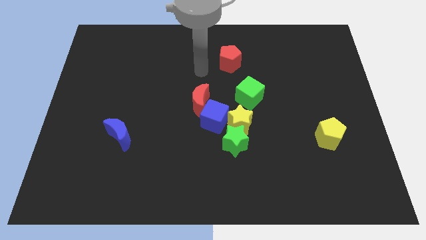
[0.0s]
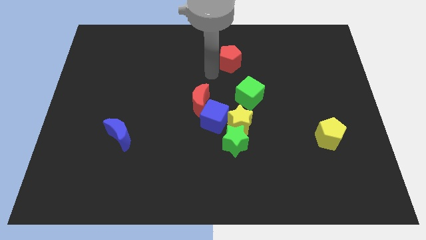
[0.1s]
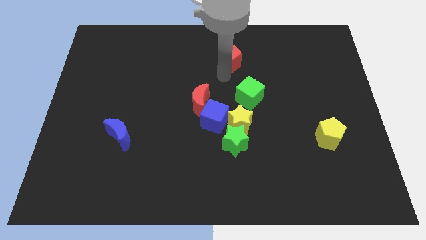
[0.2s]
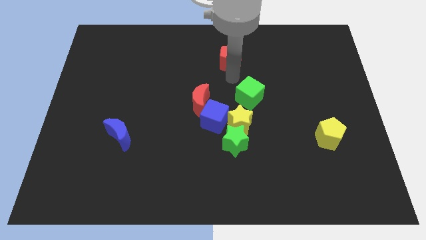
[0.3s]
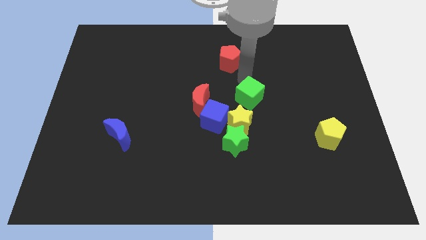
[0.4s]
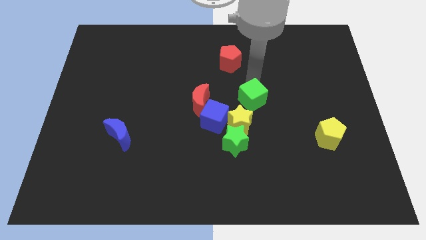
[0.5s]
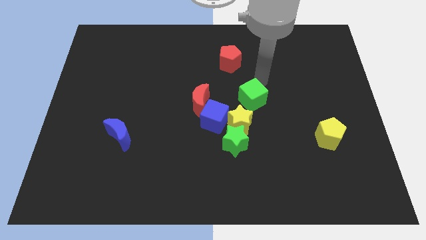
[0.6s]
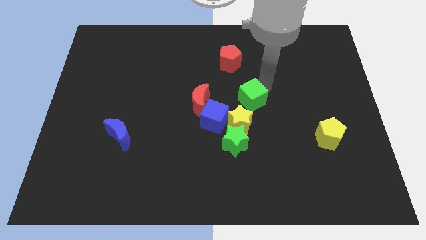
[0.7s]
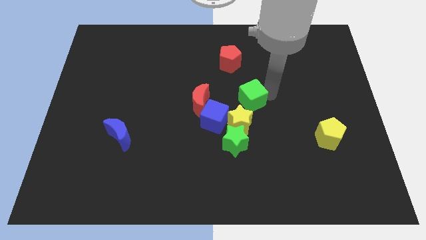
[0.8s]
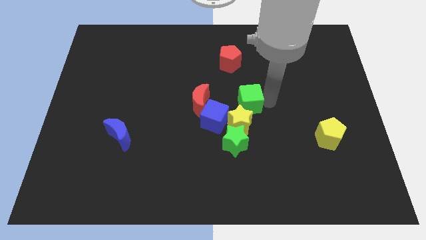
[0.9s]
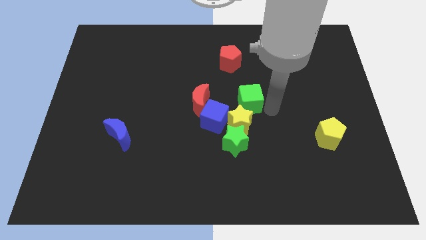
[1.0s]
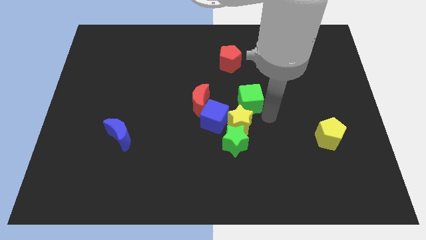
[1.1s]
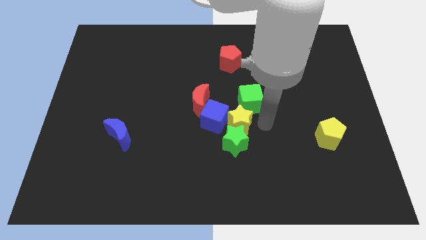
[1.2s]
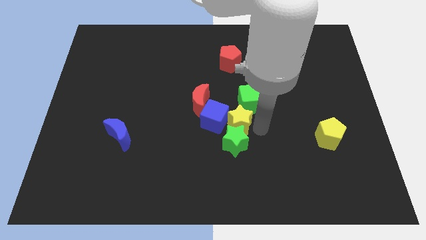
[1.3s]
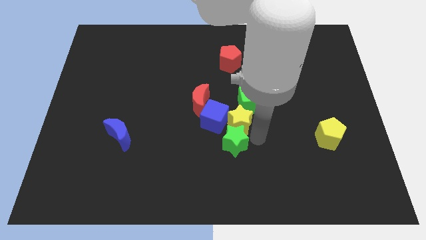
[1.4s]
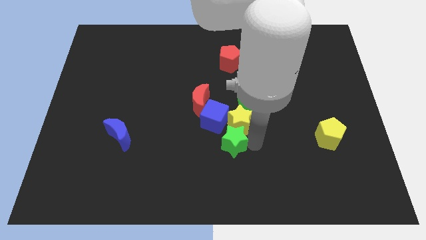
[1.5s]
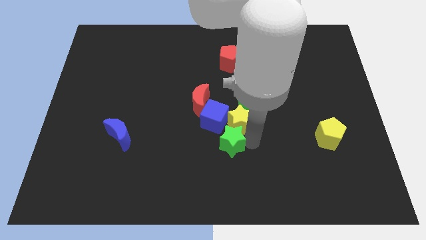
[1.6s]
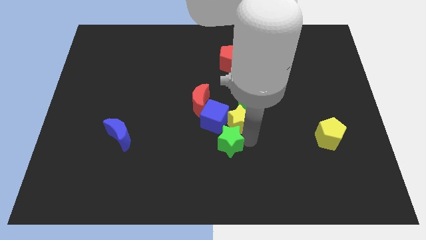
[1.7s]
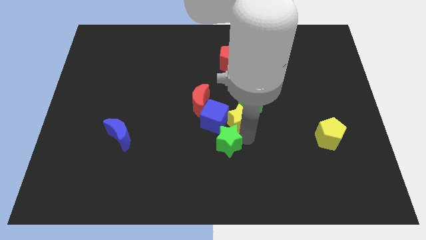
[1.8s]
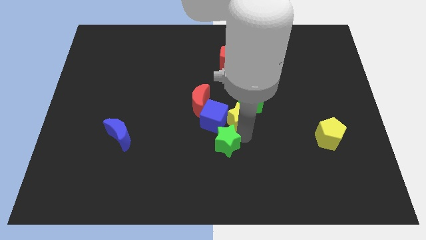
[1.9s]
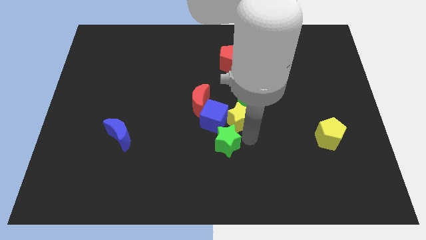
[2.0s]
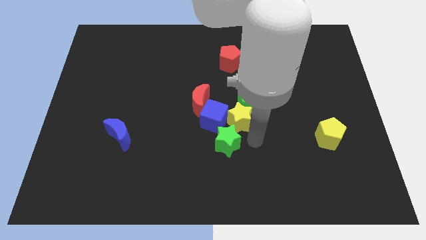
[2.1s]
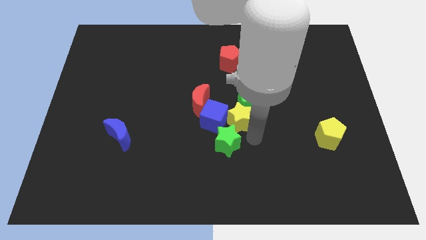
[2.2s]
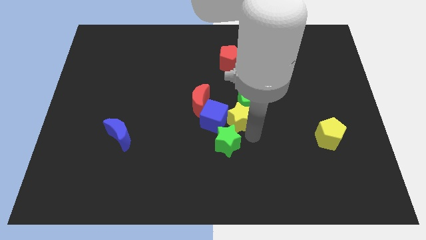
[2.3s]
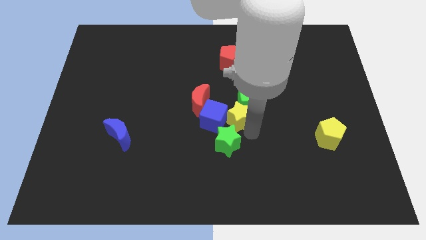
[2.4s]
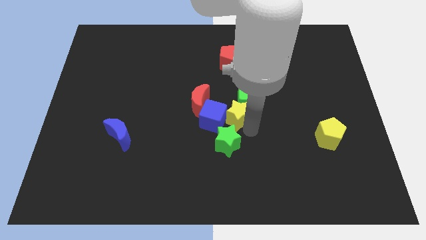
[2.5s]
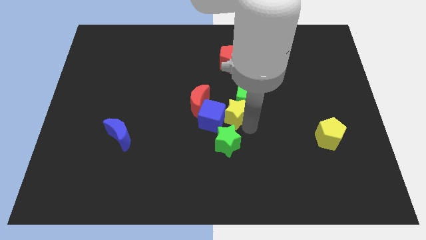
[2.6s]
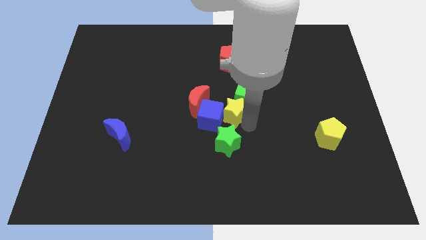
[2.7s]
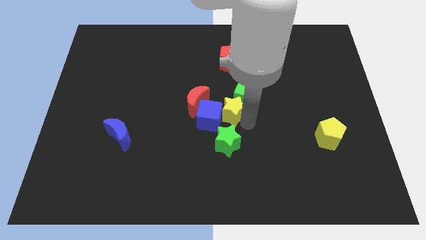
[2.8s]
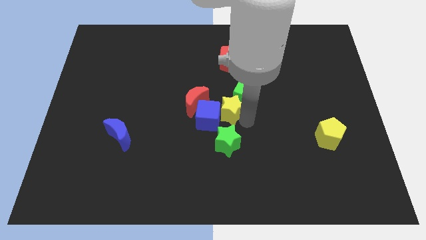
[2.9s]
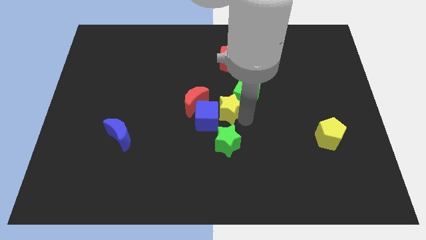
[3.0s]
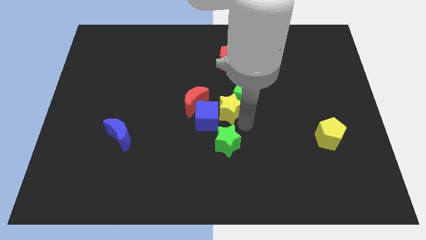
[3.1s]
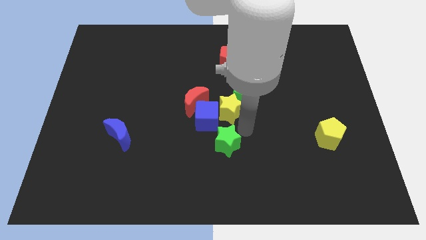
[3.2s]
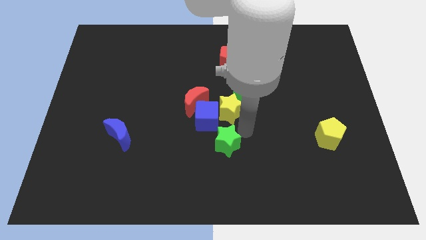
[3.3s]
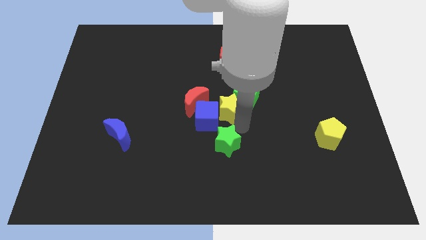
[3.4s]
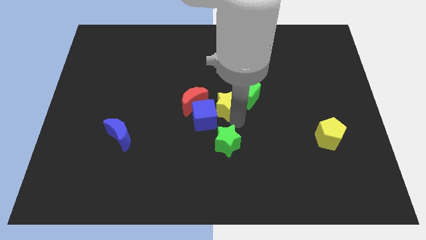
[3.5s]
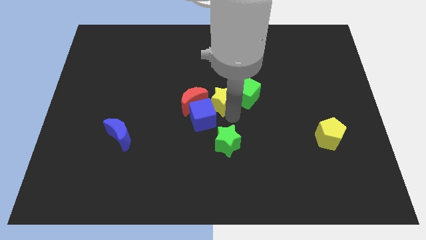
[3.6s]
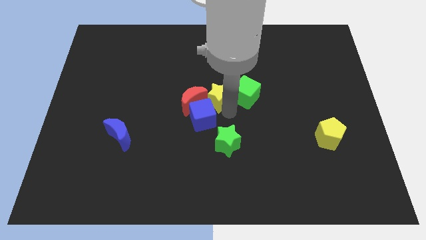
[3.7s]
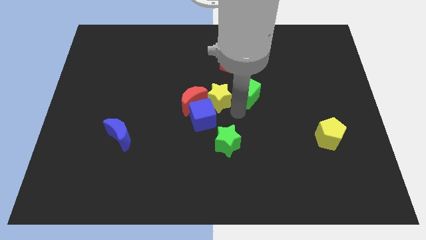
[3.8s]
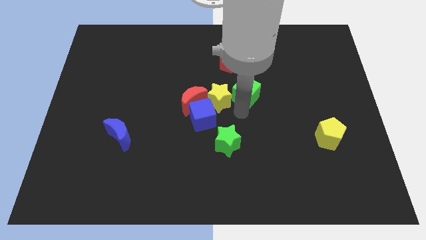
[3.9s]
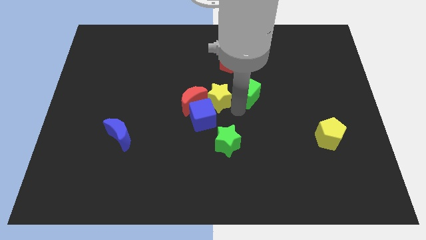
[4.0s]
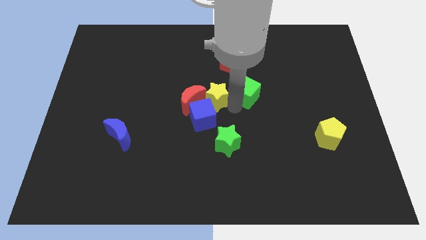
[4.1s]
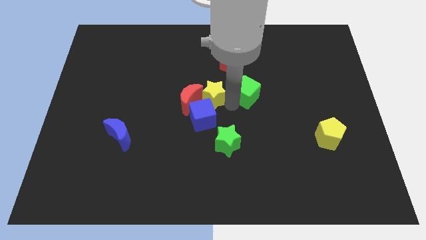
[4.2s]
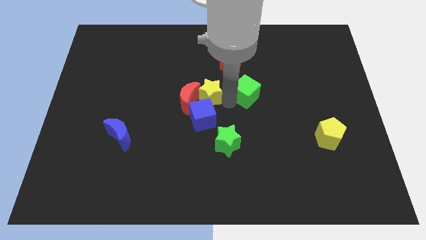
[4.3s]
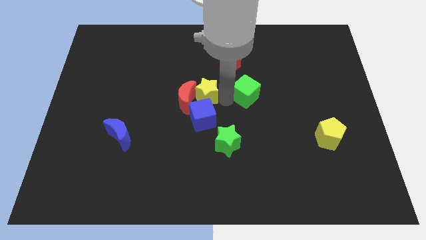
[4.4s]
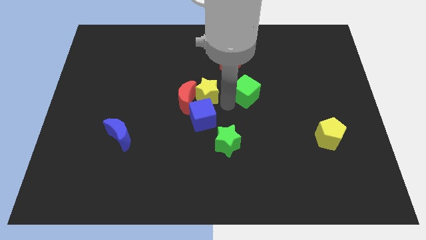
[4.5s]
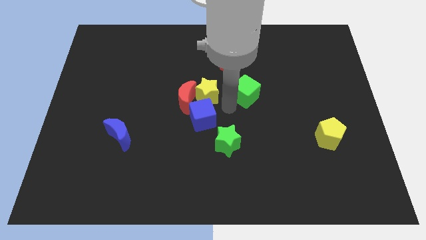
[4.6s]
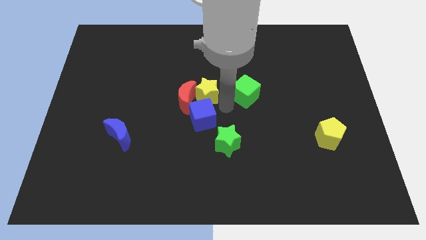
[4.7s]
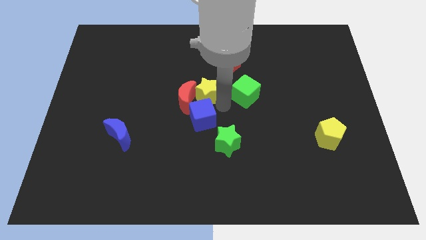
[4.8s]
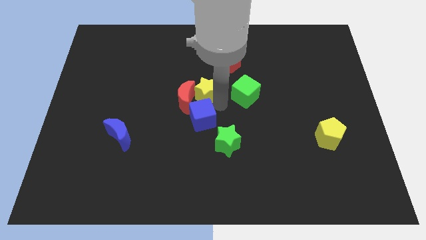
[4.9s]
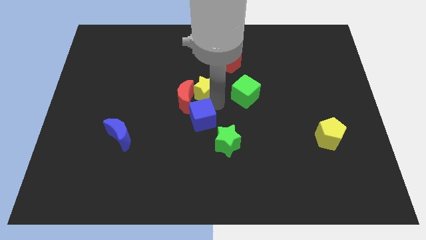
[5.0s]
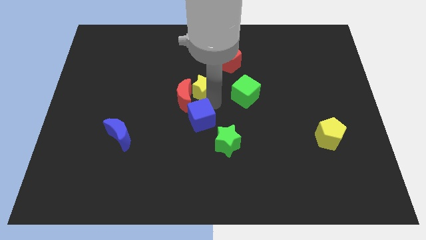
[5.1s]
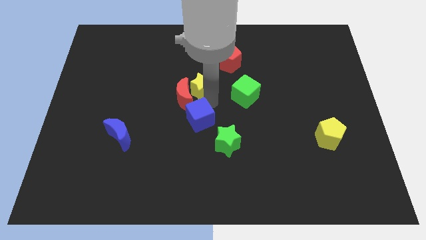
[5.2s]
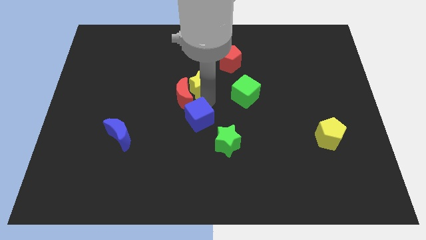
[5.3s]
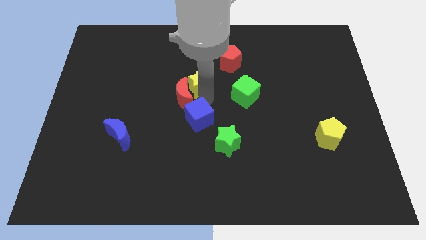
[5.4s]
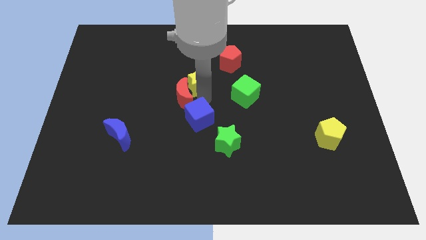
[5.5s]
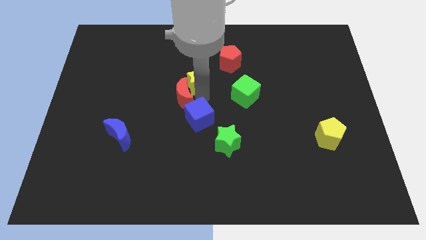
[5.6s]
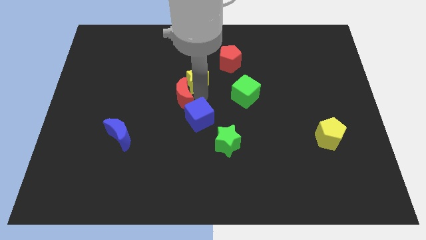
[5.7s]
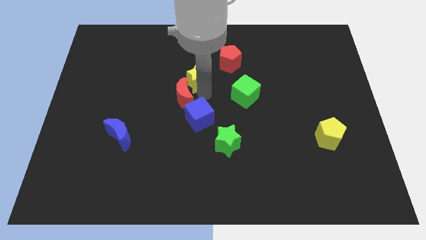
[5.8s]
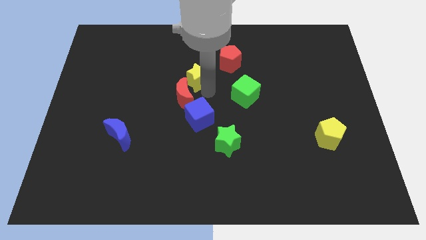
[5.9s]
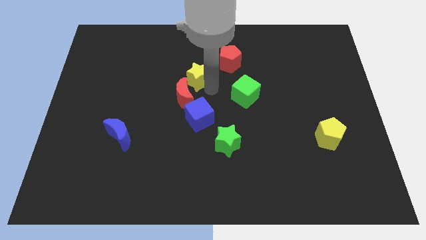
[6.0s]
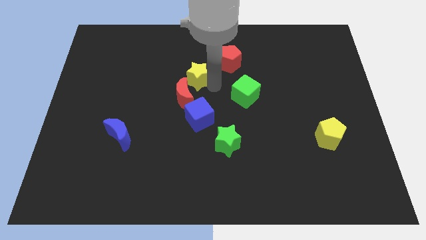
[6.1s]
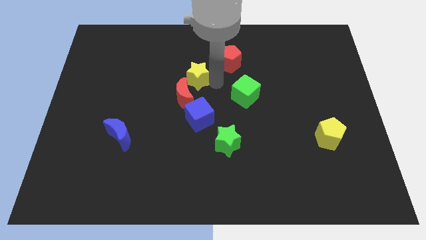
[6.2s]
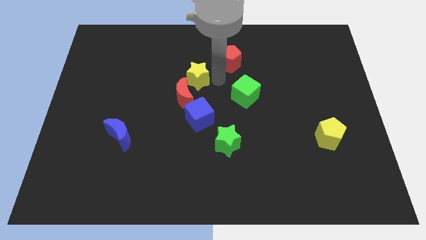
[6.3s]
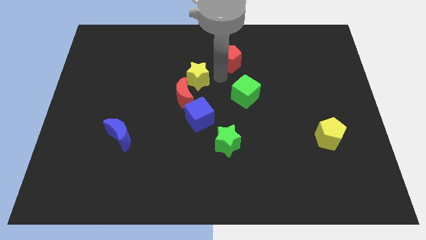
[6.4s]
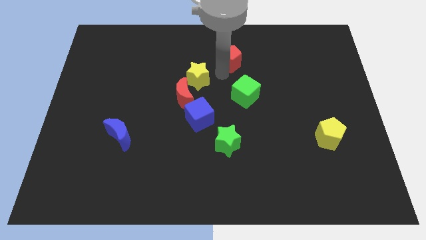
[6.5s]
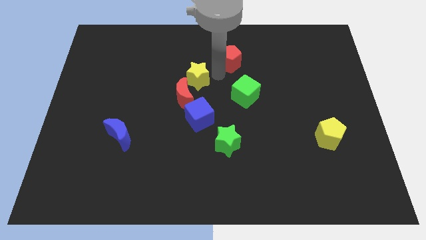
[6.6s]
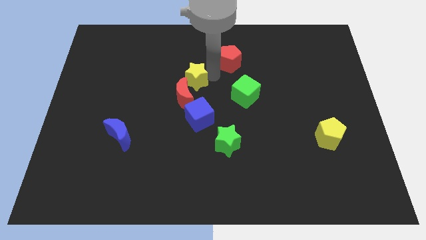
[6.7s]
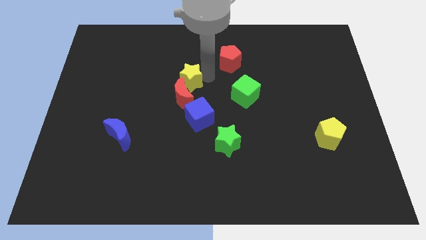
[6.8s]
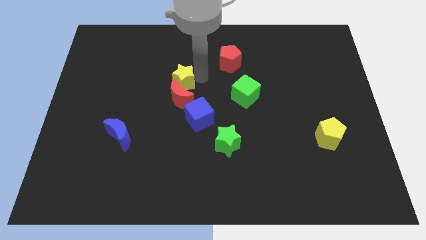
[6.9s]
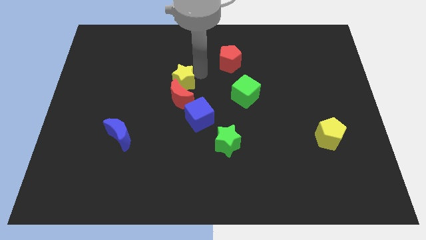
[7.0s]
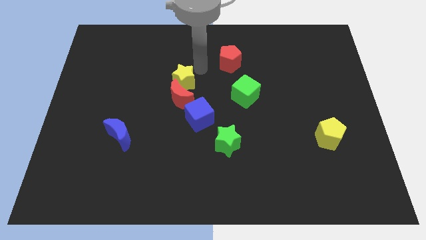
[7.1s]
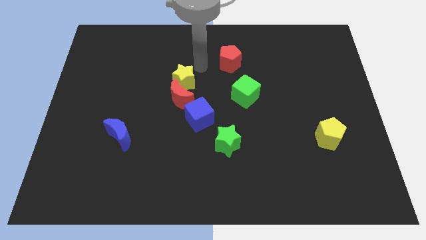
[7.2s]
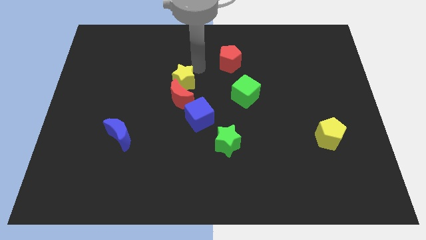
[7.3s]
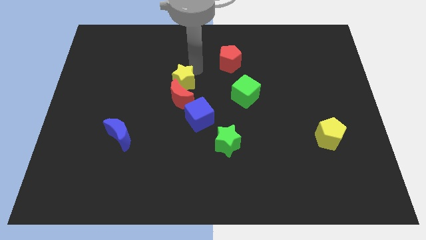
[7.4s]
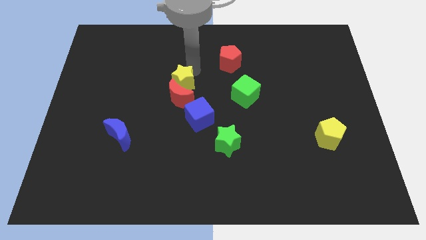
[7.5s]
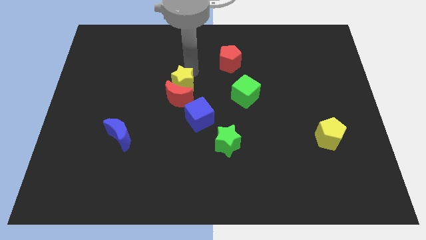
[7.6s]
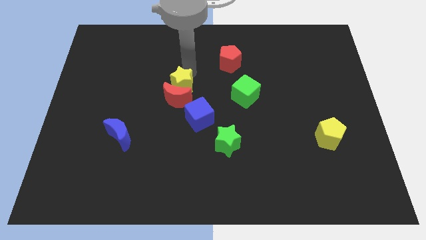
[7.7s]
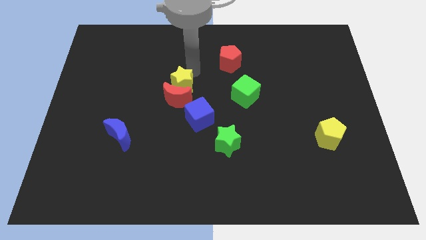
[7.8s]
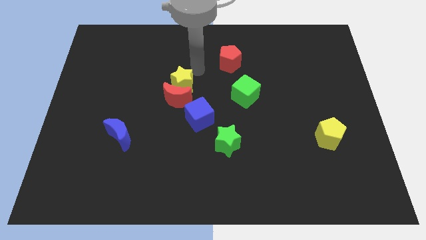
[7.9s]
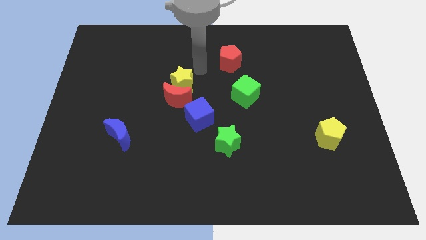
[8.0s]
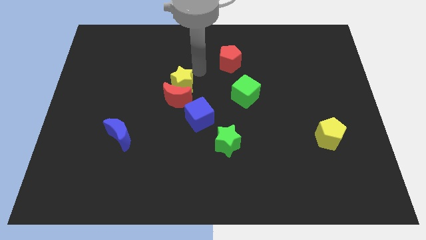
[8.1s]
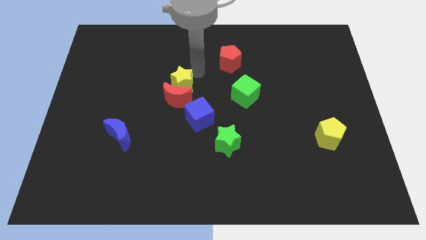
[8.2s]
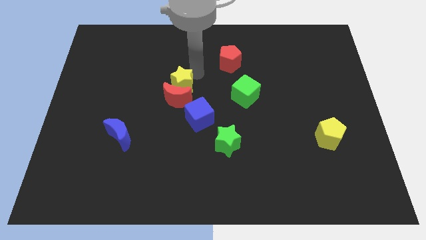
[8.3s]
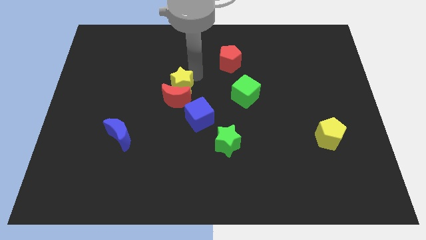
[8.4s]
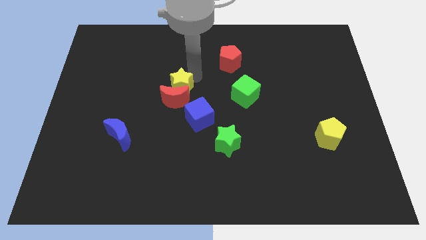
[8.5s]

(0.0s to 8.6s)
push the yellow star to the left a little bit
